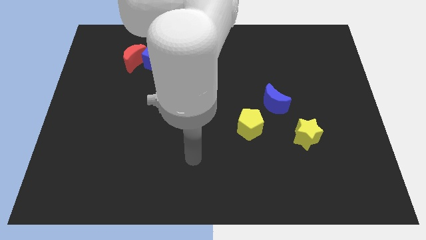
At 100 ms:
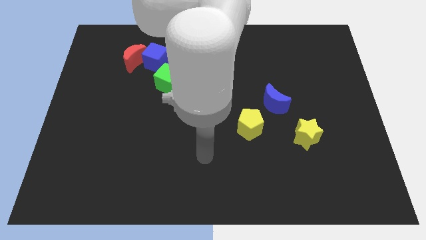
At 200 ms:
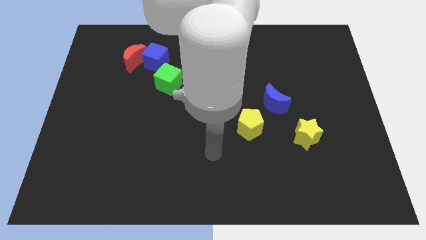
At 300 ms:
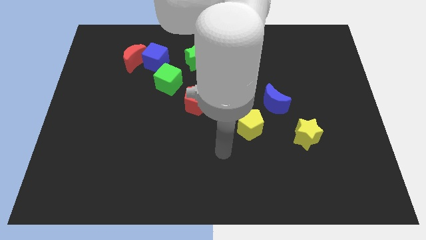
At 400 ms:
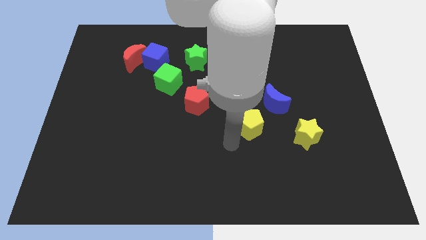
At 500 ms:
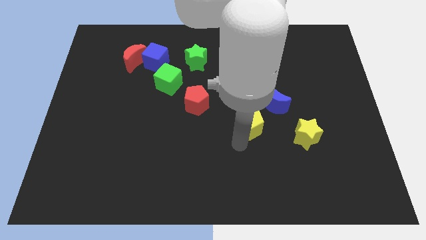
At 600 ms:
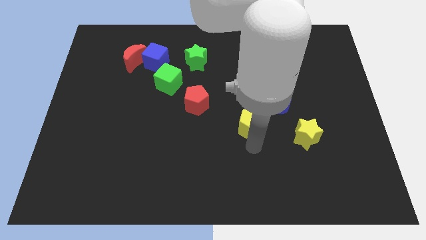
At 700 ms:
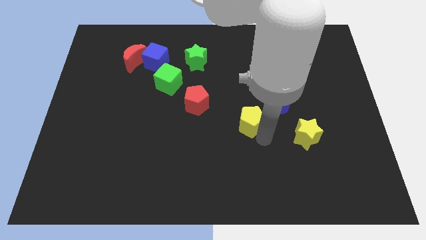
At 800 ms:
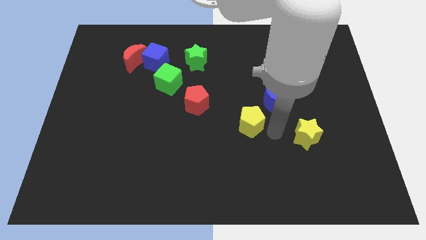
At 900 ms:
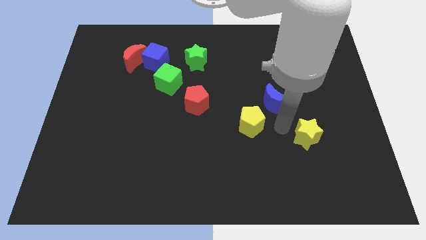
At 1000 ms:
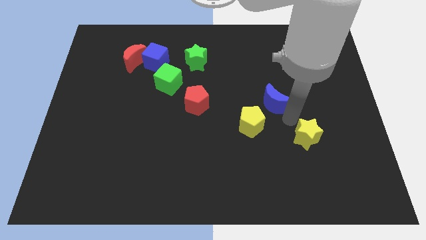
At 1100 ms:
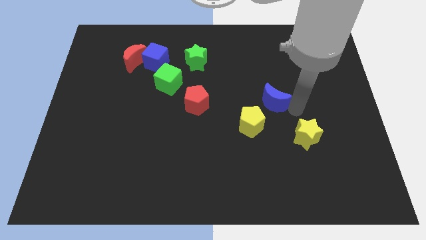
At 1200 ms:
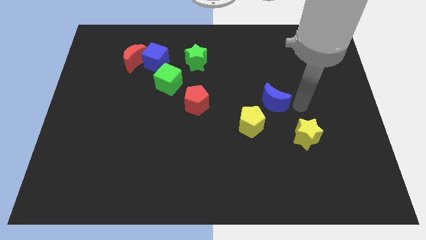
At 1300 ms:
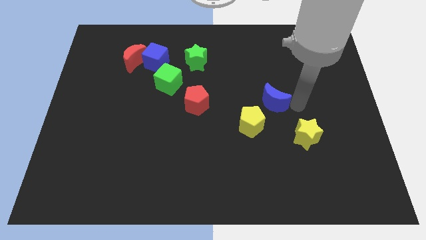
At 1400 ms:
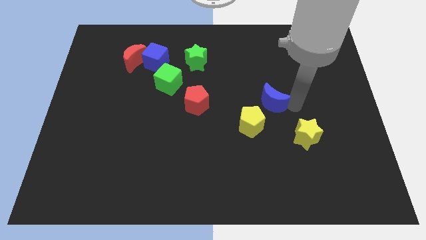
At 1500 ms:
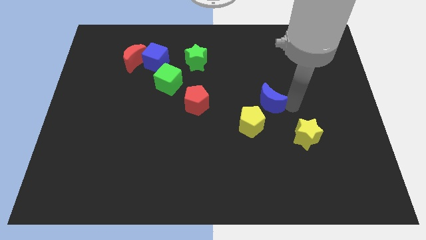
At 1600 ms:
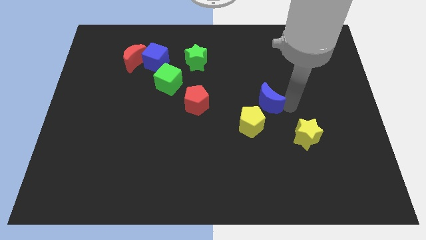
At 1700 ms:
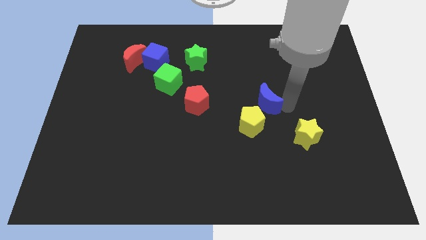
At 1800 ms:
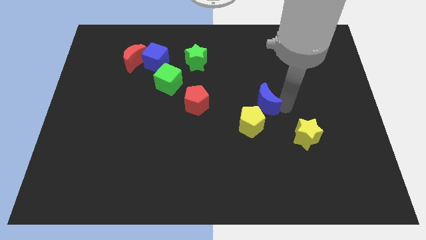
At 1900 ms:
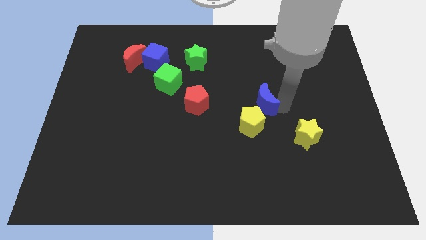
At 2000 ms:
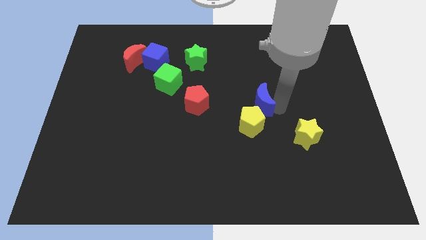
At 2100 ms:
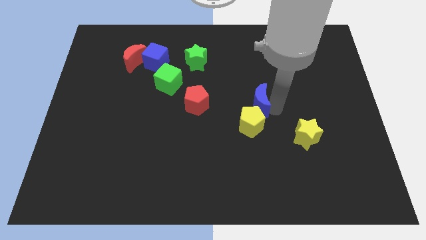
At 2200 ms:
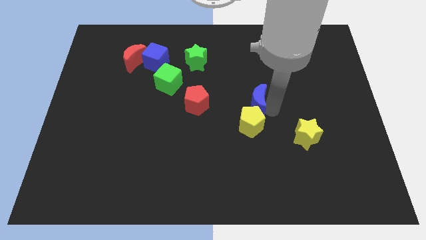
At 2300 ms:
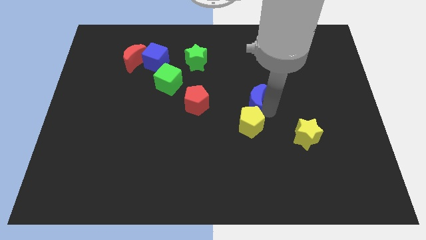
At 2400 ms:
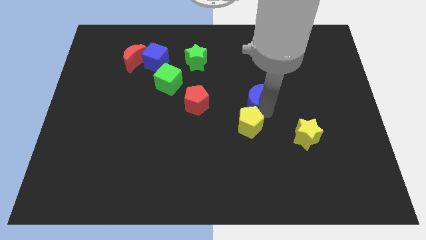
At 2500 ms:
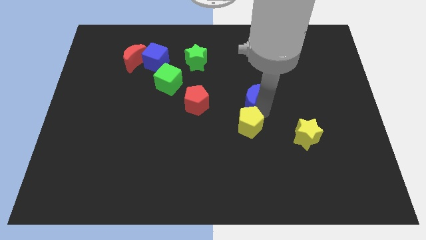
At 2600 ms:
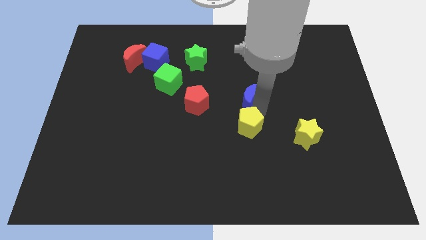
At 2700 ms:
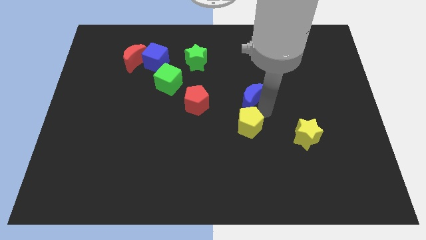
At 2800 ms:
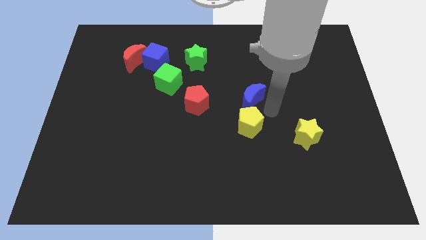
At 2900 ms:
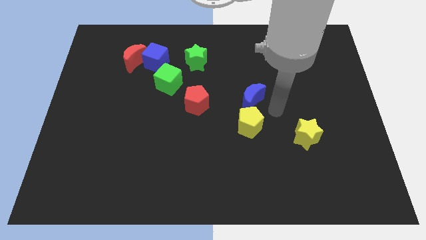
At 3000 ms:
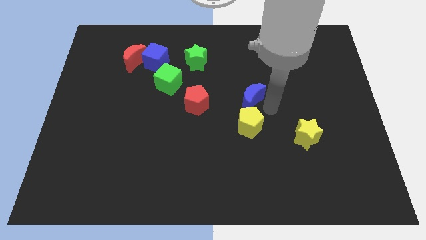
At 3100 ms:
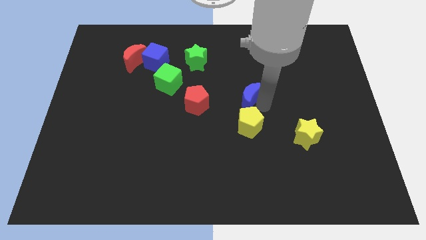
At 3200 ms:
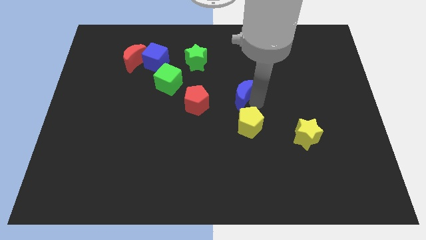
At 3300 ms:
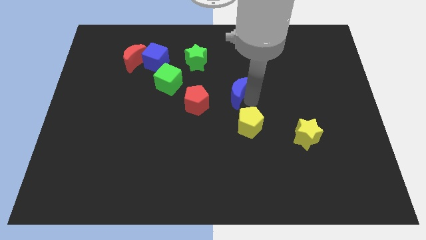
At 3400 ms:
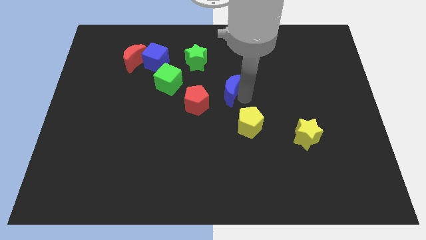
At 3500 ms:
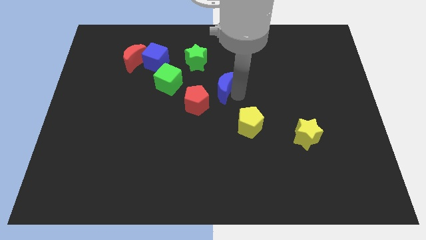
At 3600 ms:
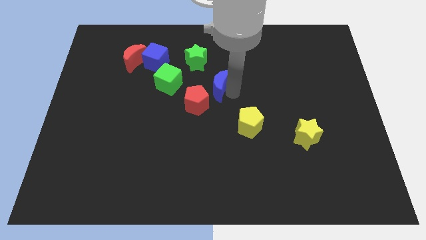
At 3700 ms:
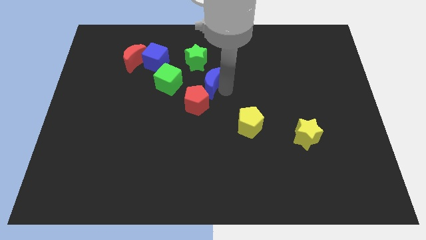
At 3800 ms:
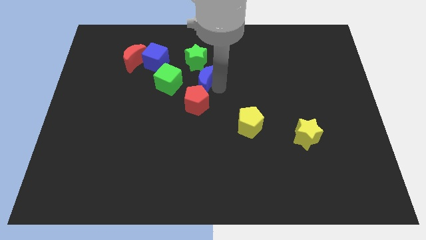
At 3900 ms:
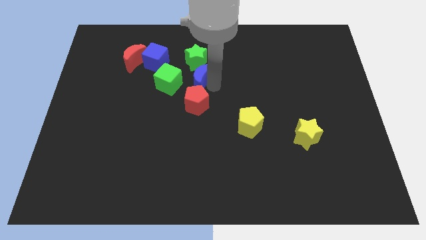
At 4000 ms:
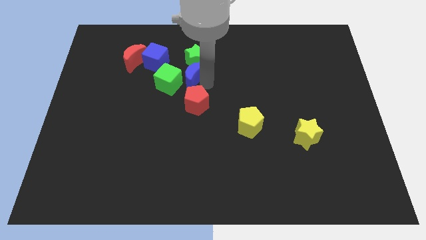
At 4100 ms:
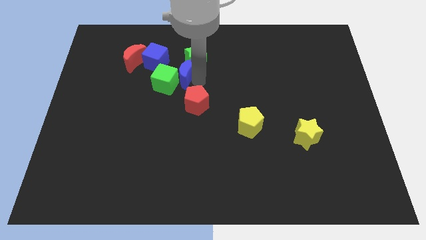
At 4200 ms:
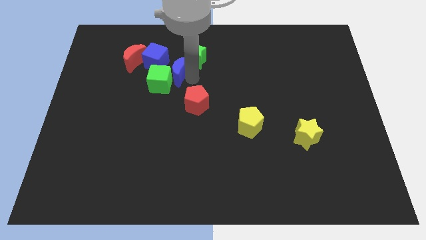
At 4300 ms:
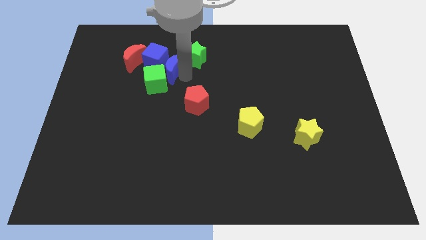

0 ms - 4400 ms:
put the blue moon towards the blue cube

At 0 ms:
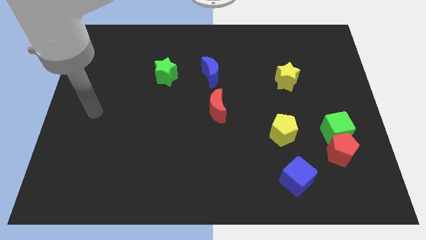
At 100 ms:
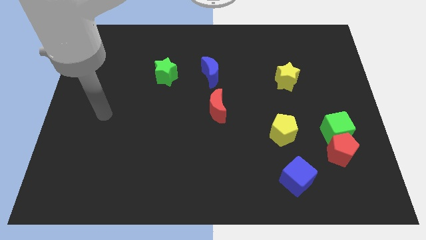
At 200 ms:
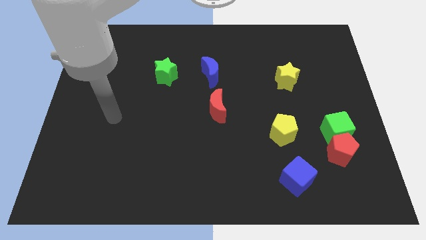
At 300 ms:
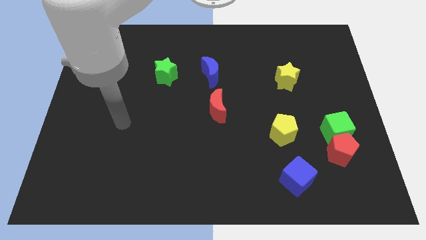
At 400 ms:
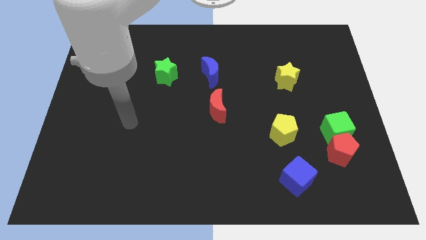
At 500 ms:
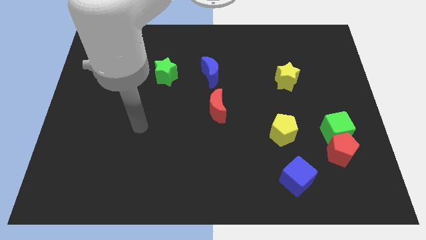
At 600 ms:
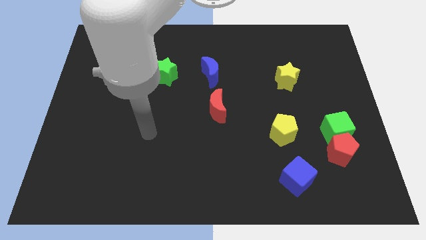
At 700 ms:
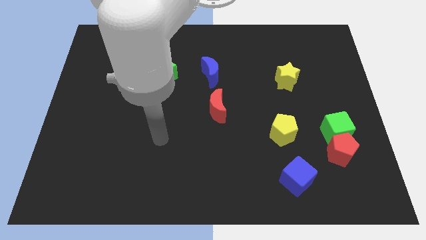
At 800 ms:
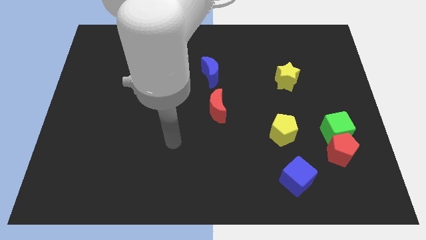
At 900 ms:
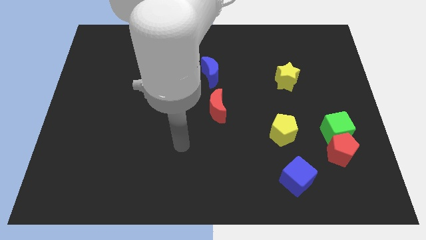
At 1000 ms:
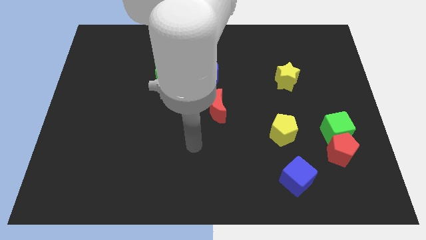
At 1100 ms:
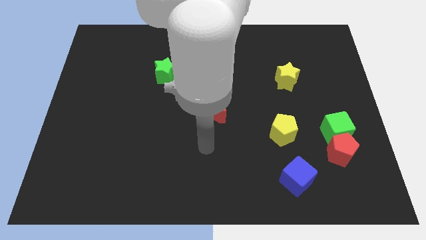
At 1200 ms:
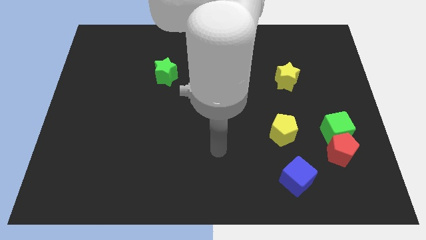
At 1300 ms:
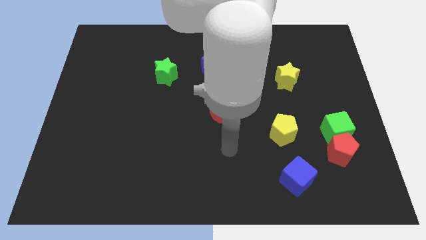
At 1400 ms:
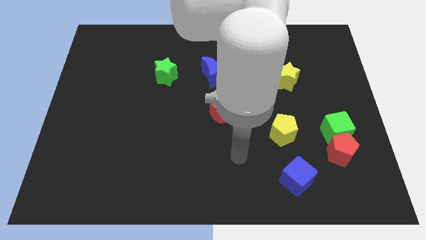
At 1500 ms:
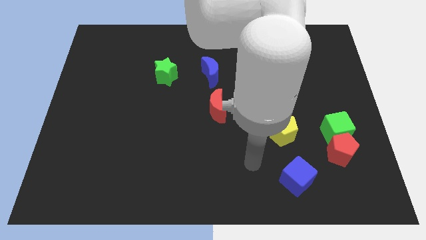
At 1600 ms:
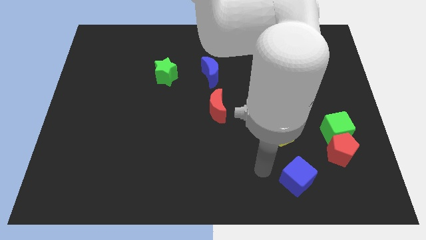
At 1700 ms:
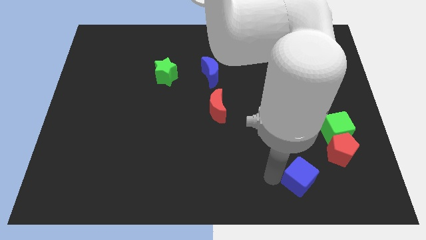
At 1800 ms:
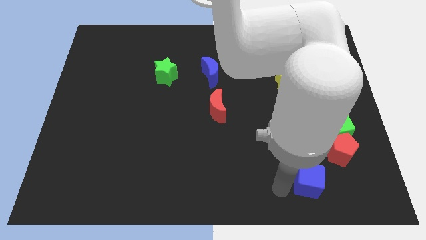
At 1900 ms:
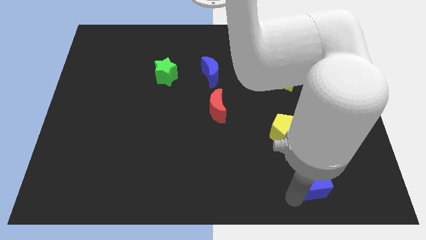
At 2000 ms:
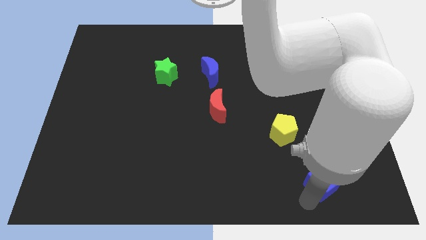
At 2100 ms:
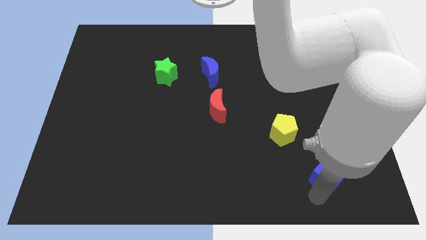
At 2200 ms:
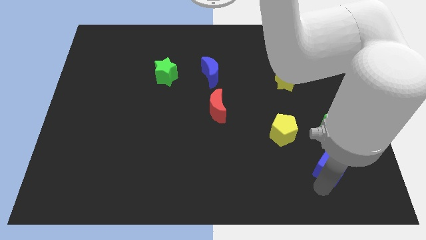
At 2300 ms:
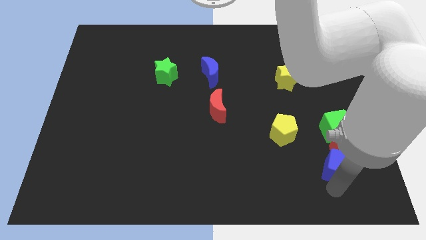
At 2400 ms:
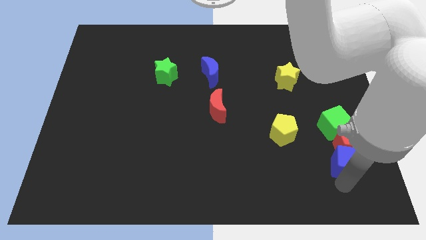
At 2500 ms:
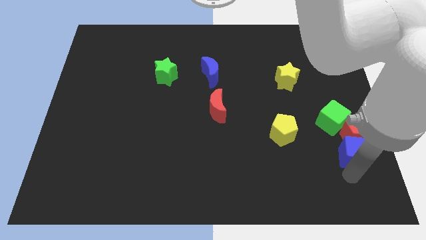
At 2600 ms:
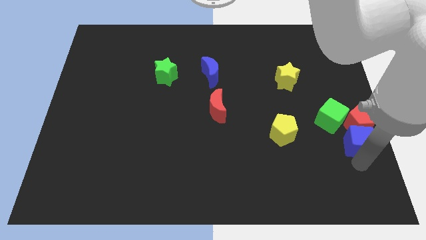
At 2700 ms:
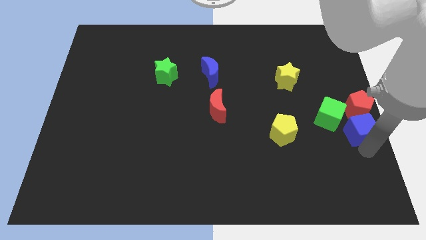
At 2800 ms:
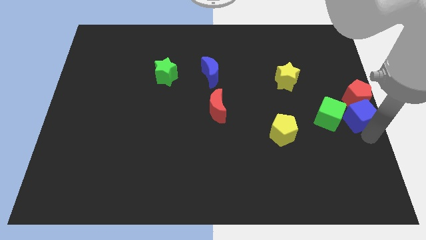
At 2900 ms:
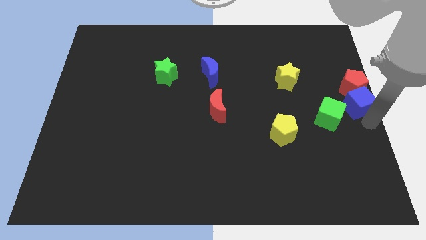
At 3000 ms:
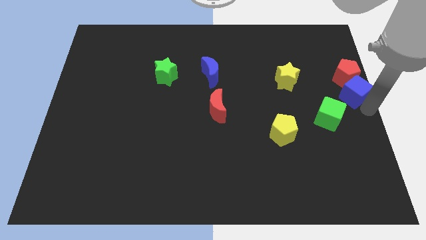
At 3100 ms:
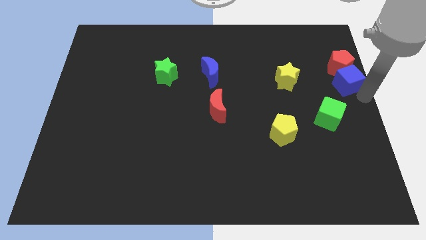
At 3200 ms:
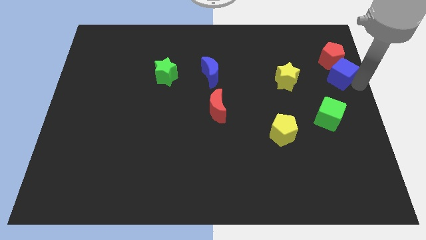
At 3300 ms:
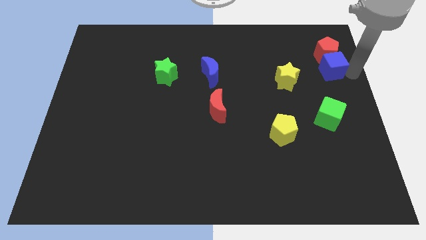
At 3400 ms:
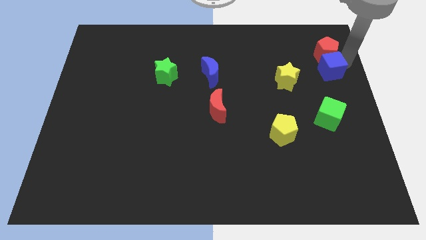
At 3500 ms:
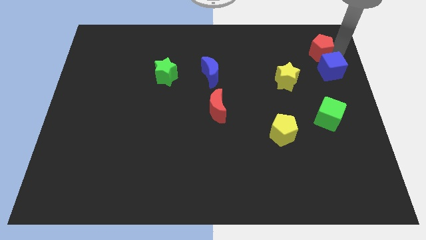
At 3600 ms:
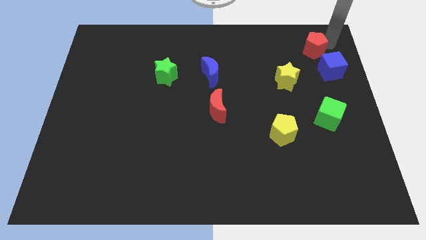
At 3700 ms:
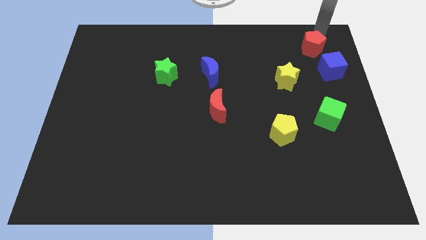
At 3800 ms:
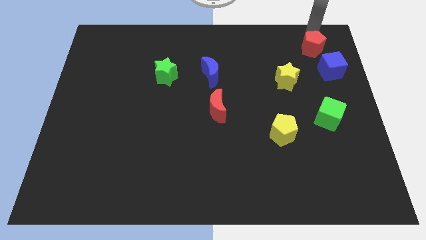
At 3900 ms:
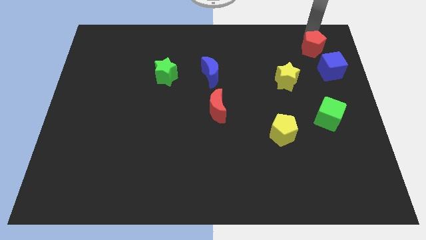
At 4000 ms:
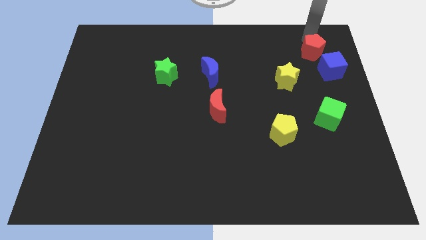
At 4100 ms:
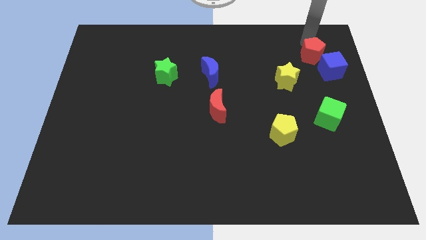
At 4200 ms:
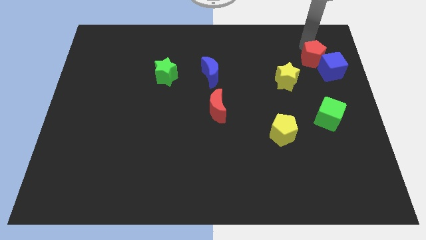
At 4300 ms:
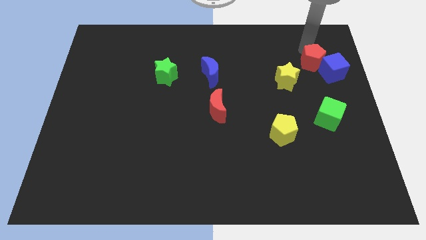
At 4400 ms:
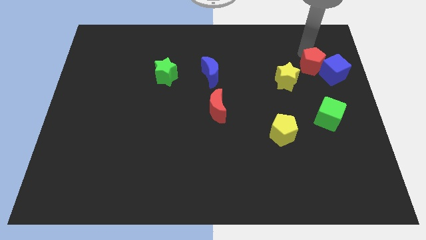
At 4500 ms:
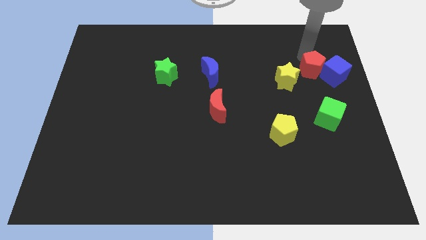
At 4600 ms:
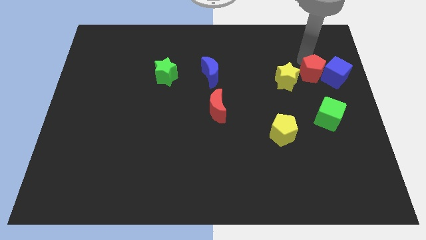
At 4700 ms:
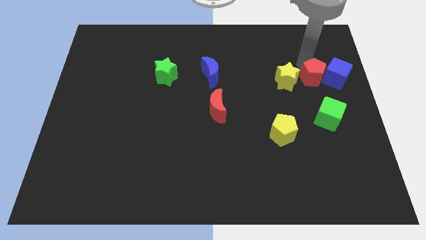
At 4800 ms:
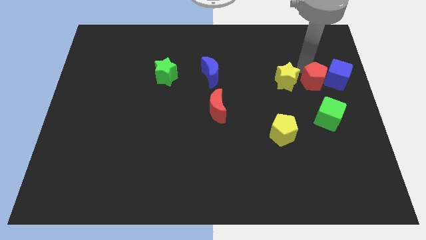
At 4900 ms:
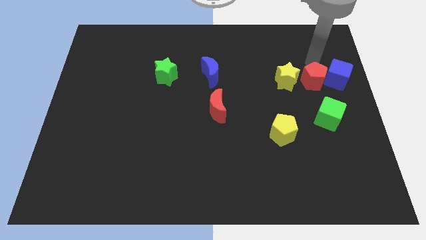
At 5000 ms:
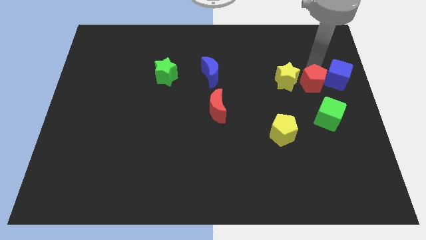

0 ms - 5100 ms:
put the red pentagon close to the yellow star
